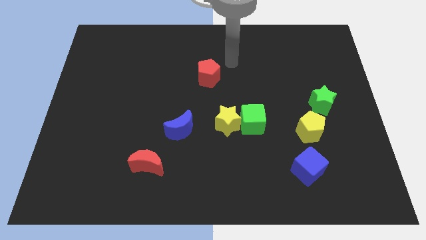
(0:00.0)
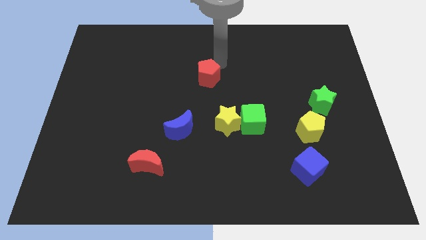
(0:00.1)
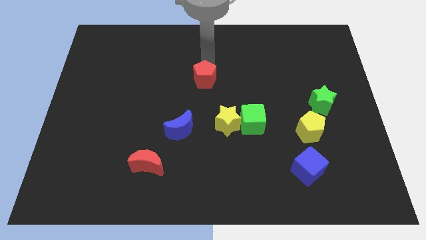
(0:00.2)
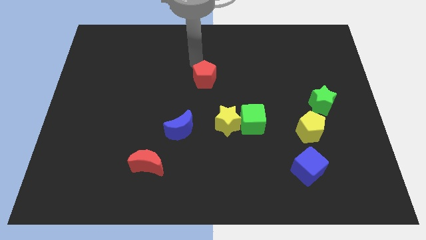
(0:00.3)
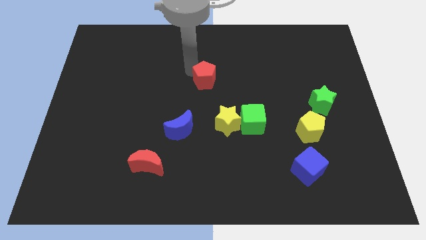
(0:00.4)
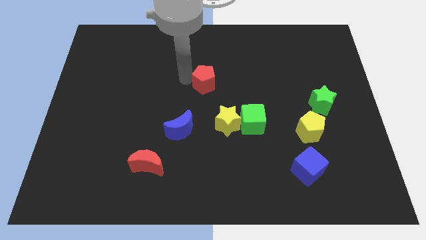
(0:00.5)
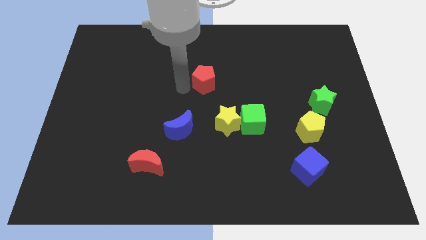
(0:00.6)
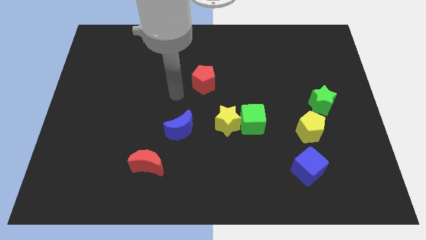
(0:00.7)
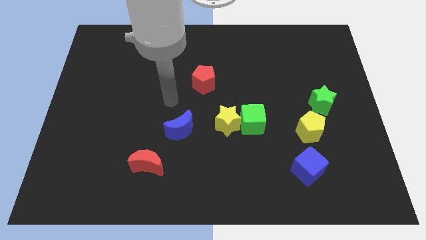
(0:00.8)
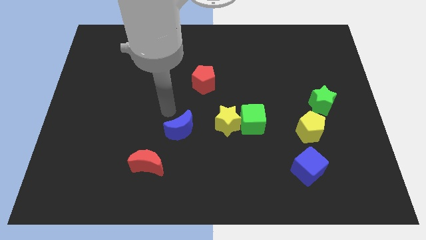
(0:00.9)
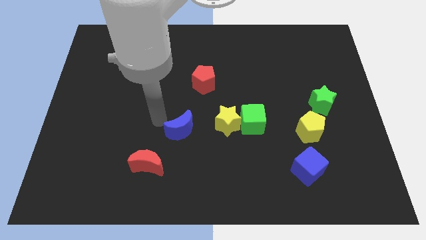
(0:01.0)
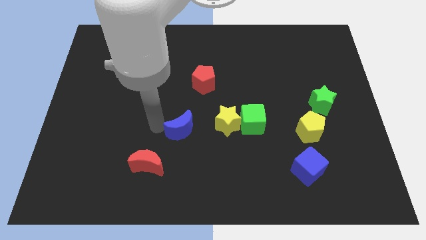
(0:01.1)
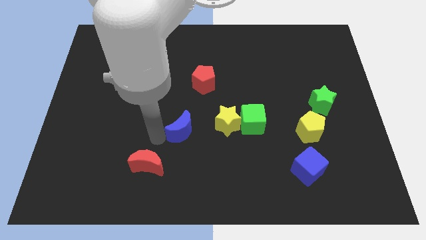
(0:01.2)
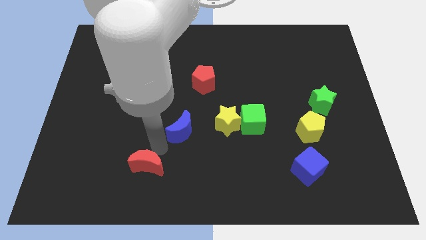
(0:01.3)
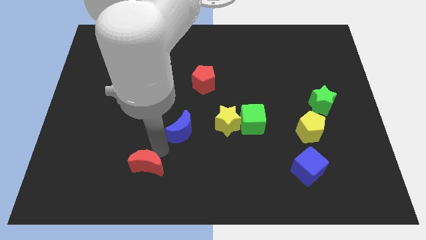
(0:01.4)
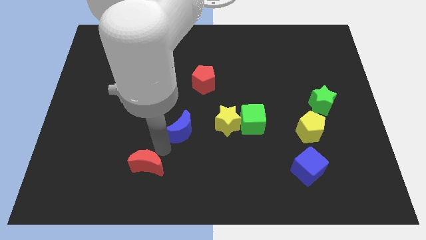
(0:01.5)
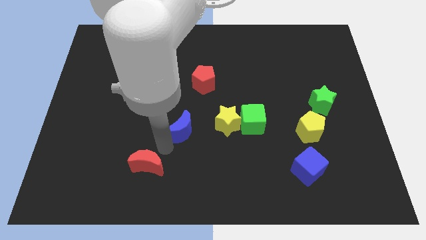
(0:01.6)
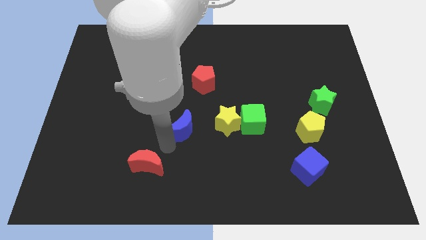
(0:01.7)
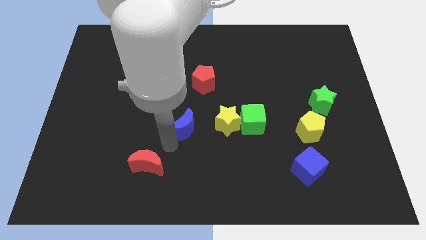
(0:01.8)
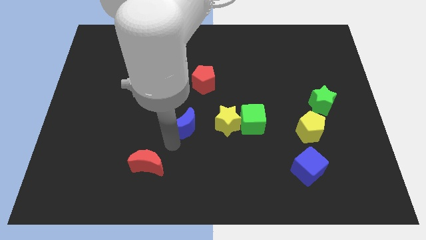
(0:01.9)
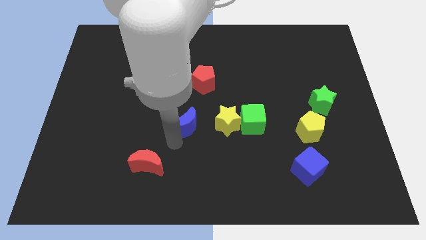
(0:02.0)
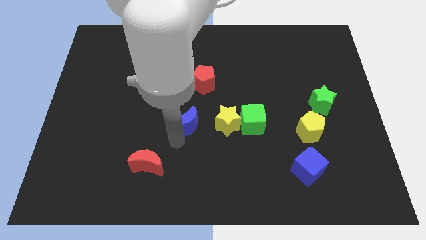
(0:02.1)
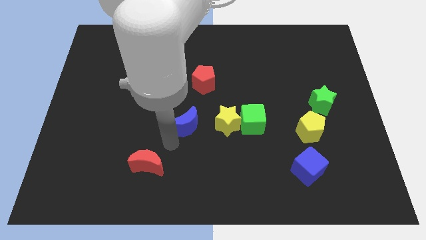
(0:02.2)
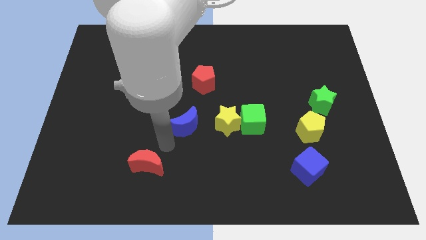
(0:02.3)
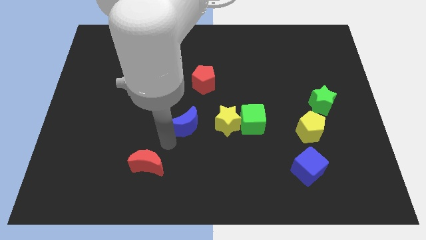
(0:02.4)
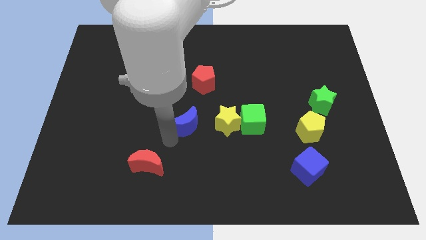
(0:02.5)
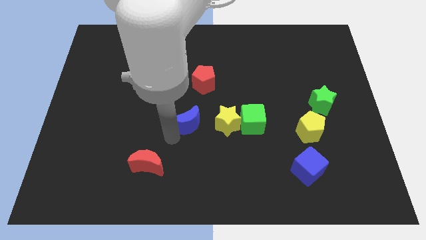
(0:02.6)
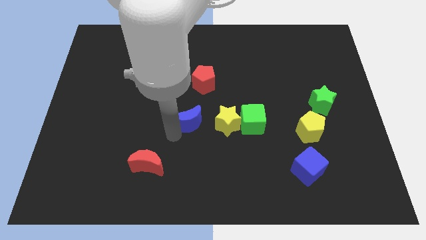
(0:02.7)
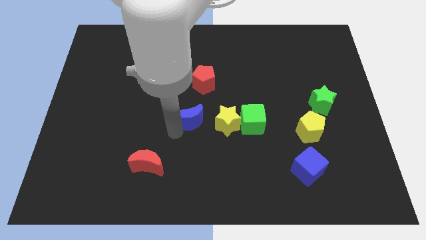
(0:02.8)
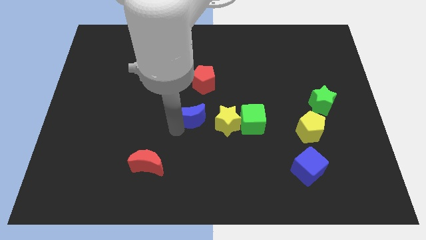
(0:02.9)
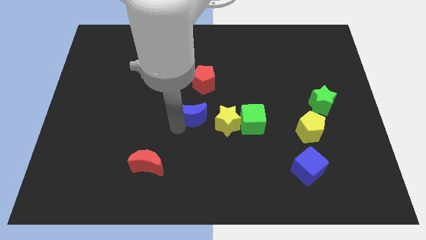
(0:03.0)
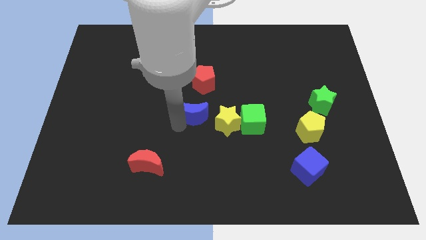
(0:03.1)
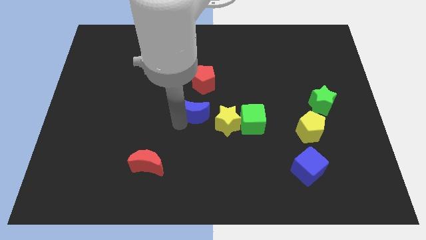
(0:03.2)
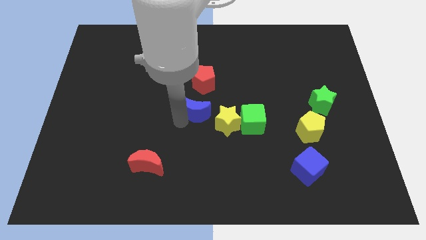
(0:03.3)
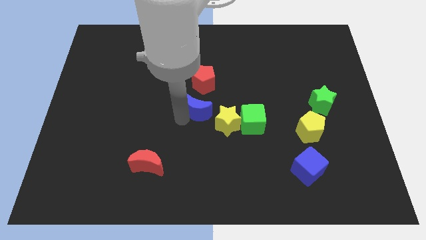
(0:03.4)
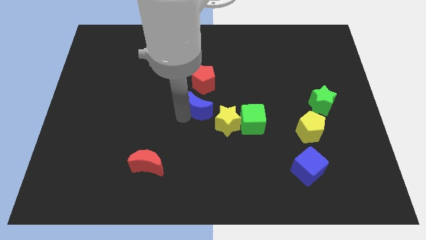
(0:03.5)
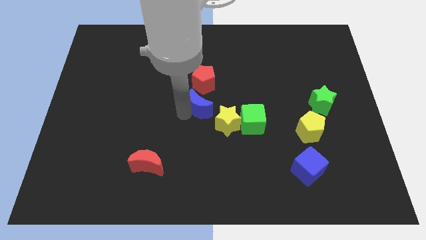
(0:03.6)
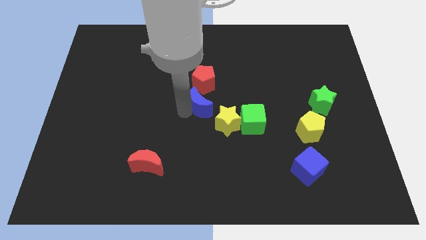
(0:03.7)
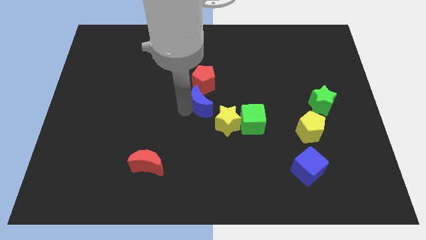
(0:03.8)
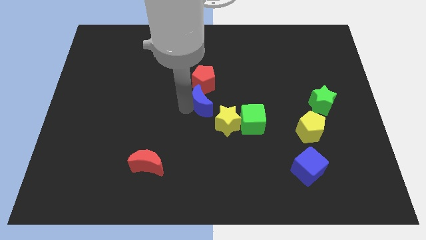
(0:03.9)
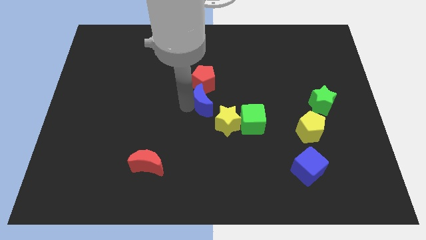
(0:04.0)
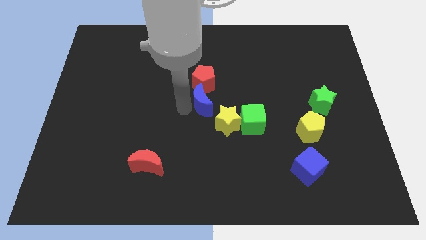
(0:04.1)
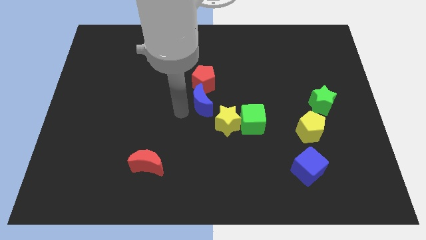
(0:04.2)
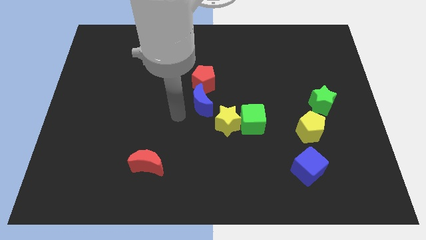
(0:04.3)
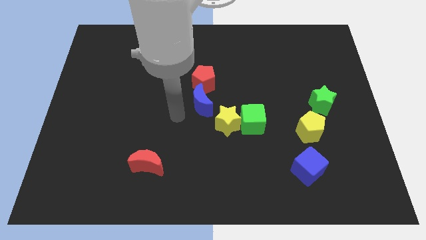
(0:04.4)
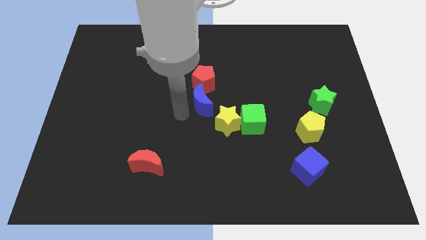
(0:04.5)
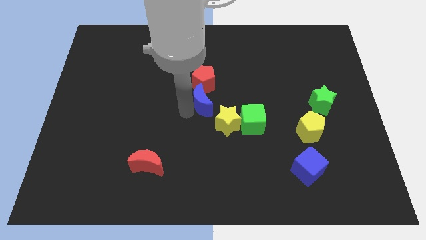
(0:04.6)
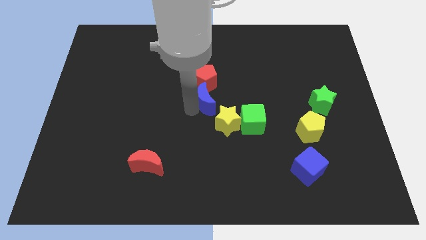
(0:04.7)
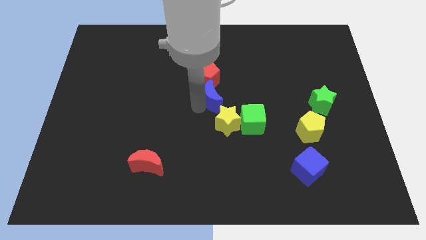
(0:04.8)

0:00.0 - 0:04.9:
move the blue moon to the top of the yellow star

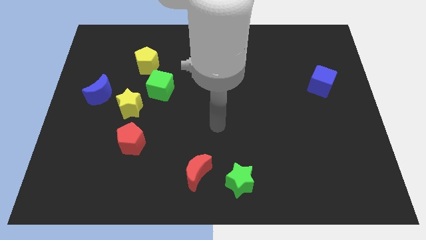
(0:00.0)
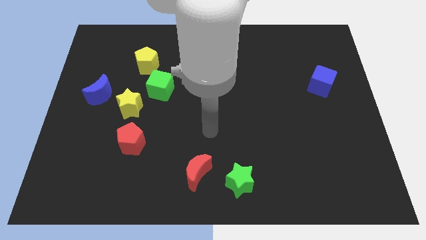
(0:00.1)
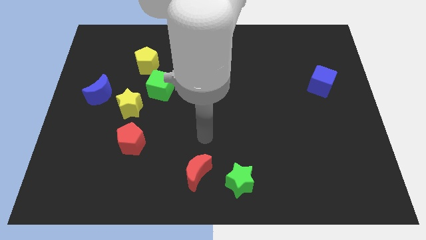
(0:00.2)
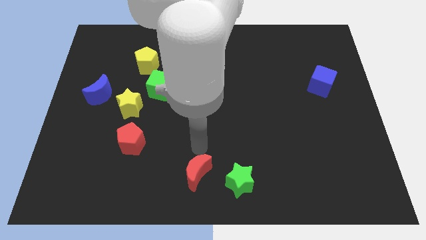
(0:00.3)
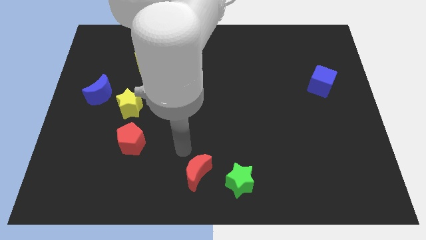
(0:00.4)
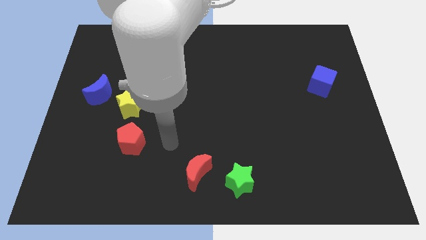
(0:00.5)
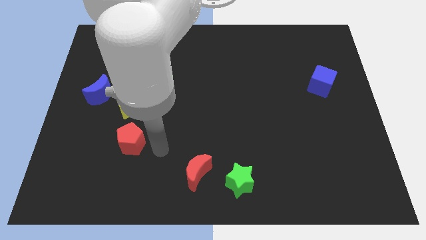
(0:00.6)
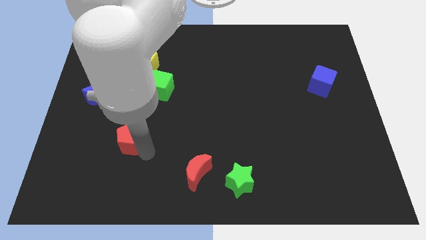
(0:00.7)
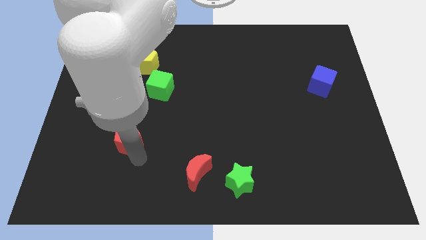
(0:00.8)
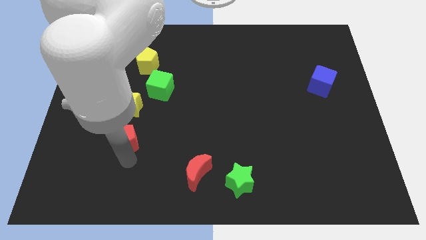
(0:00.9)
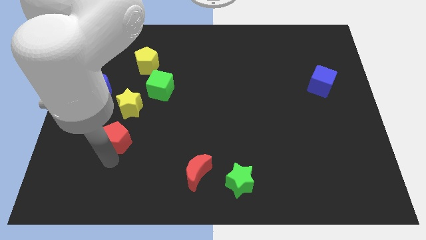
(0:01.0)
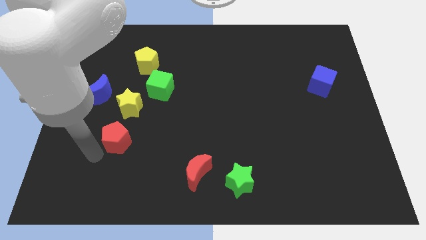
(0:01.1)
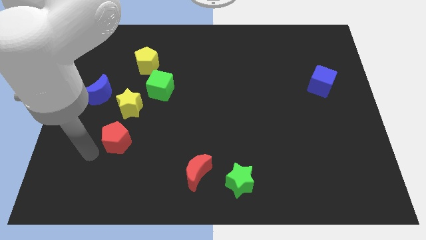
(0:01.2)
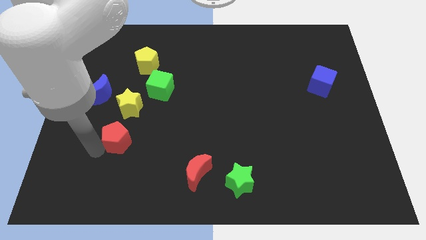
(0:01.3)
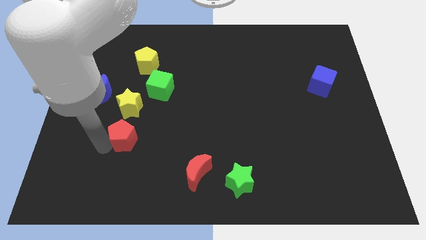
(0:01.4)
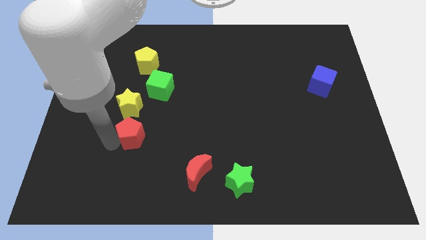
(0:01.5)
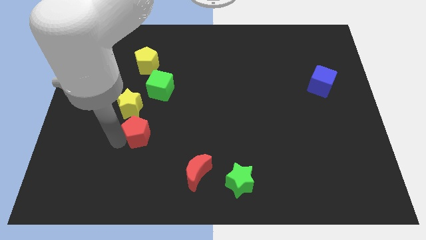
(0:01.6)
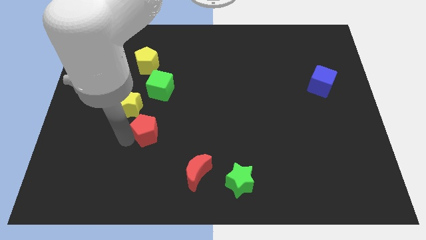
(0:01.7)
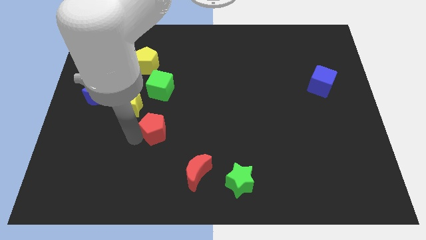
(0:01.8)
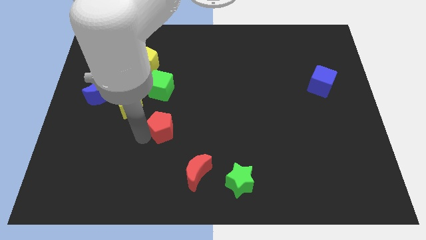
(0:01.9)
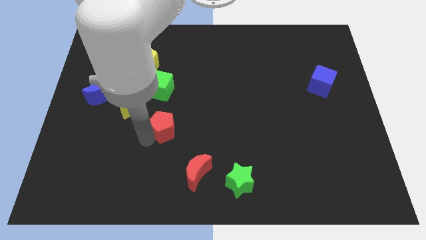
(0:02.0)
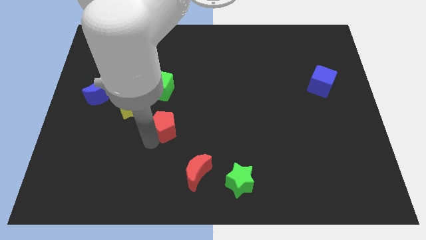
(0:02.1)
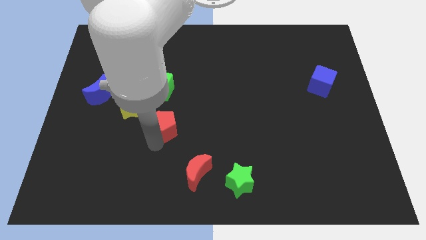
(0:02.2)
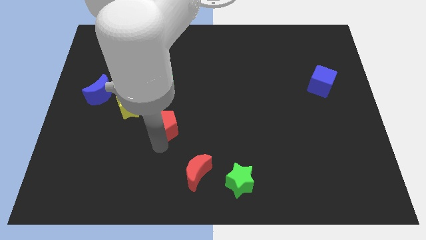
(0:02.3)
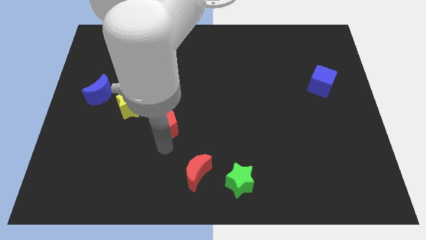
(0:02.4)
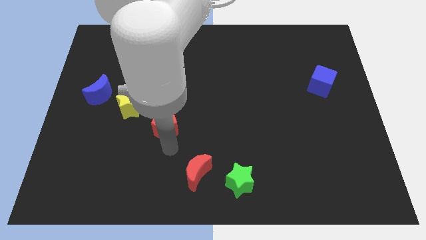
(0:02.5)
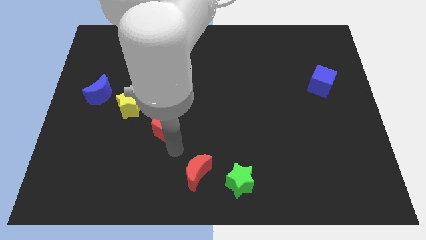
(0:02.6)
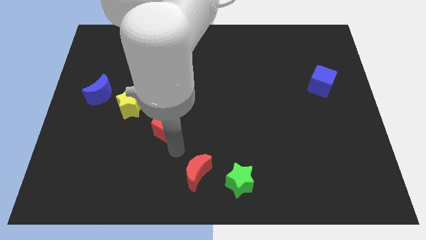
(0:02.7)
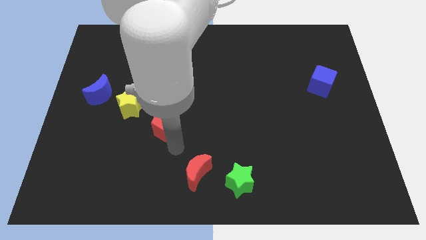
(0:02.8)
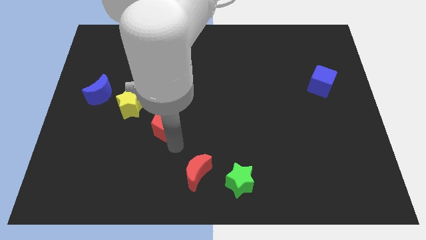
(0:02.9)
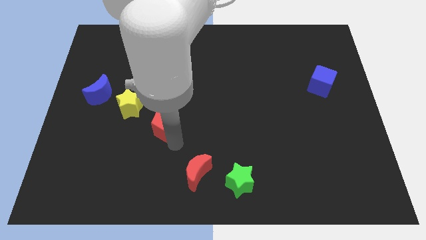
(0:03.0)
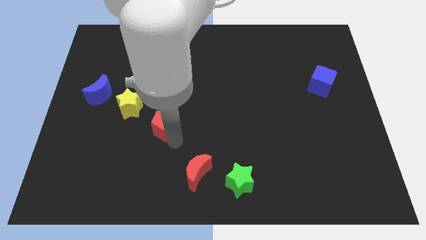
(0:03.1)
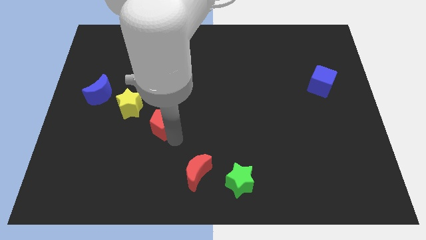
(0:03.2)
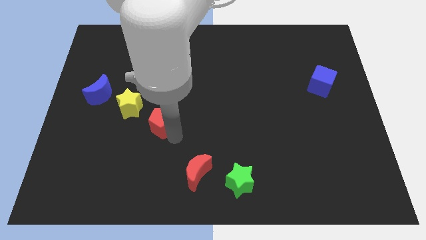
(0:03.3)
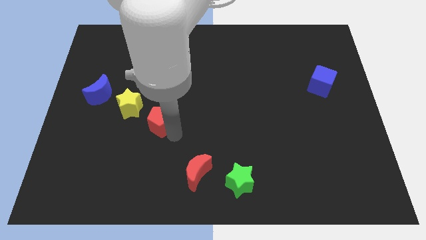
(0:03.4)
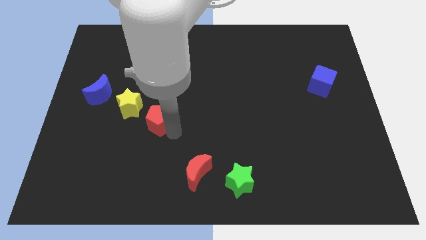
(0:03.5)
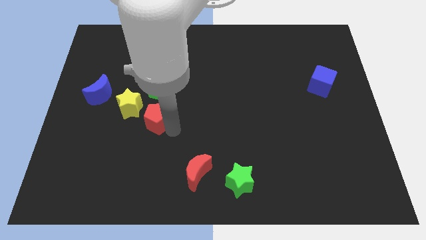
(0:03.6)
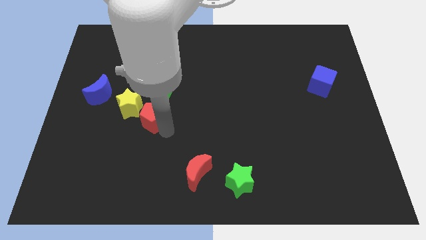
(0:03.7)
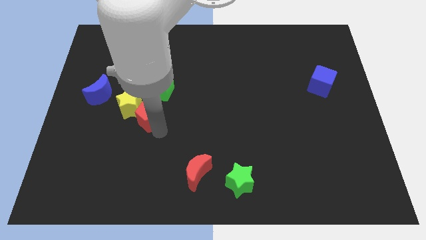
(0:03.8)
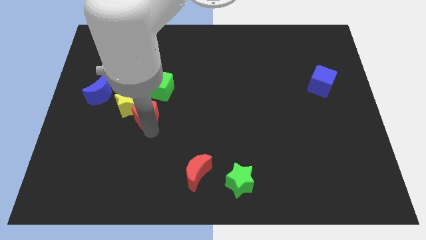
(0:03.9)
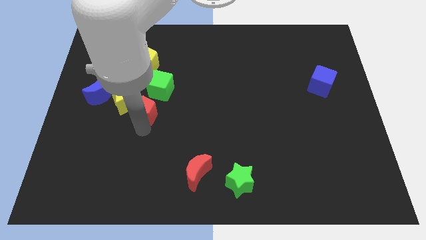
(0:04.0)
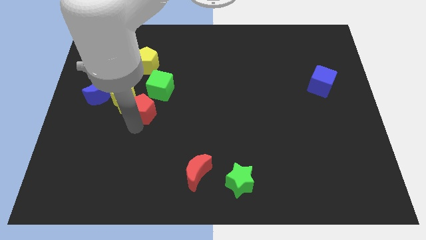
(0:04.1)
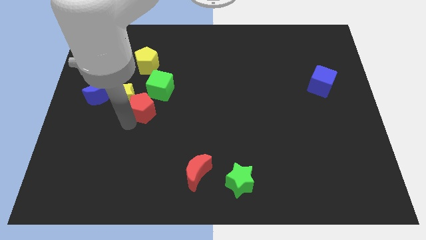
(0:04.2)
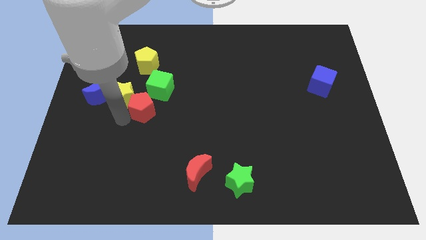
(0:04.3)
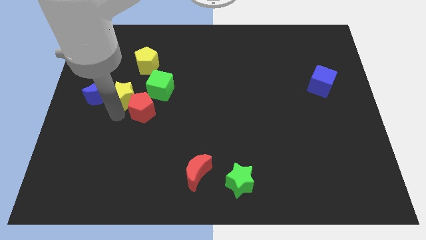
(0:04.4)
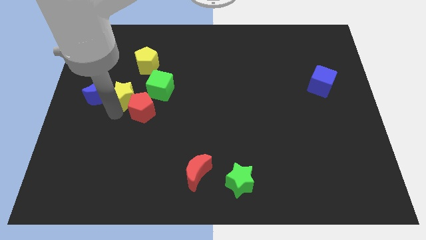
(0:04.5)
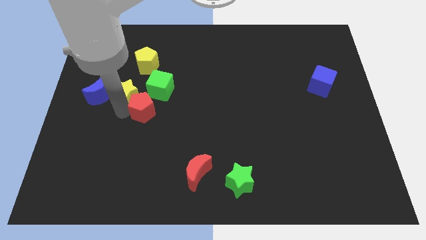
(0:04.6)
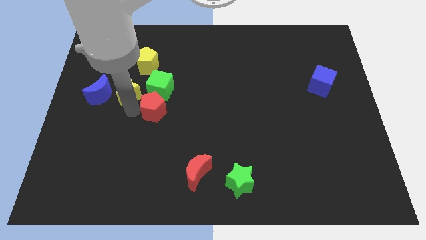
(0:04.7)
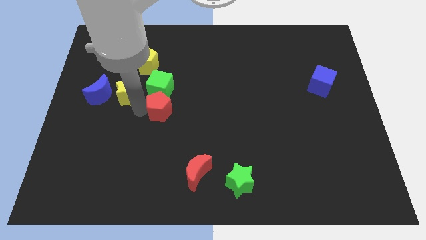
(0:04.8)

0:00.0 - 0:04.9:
slide the red pentagon diagonally down and to the right of the green cube
